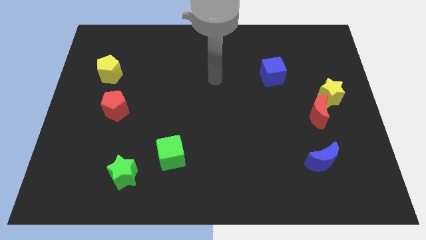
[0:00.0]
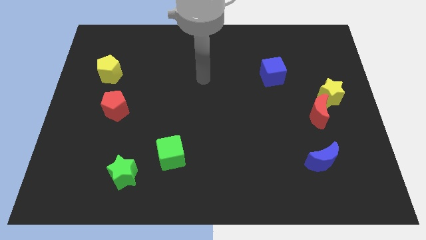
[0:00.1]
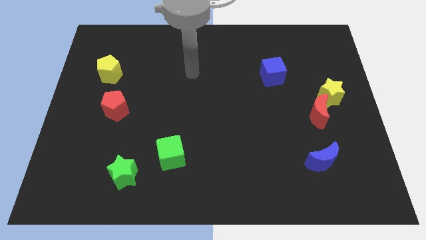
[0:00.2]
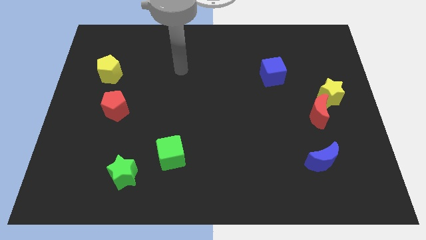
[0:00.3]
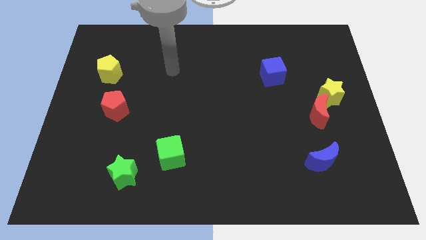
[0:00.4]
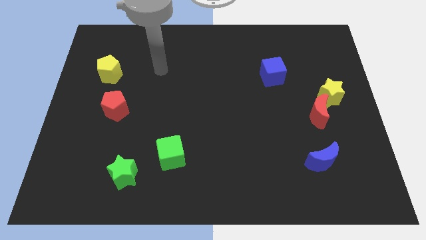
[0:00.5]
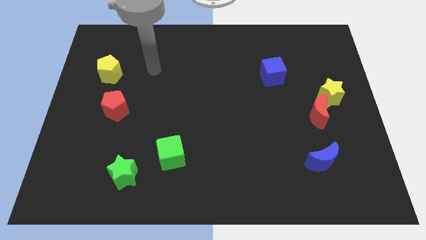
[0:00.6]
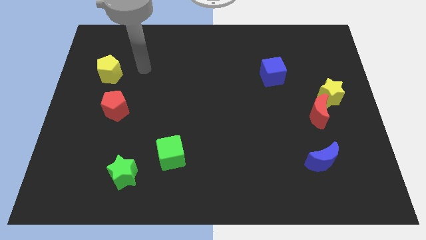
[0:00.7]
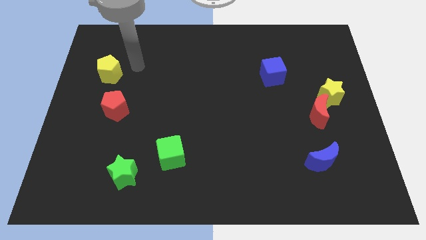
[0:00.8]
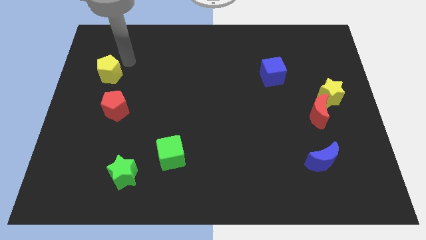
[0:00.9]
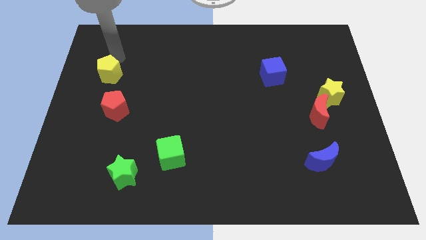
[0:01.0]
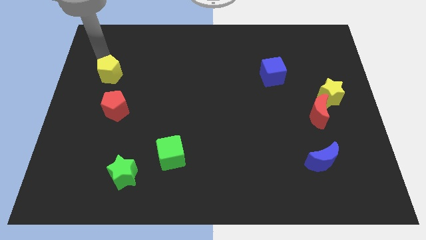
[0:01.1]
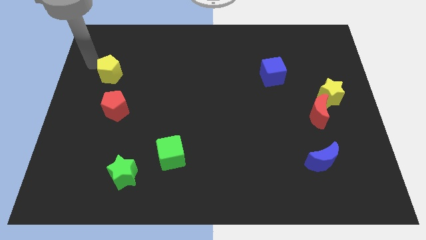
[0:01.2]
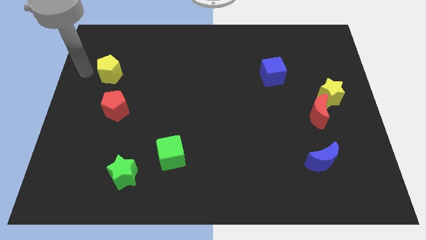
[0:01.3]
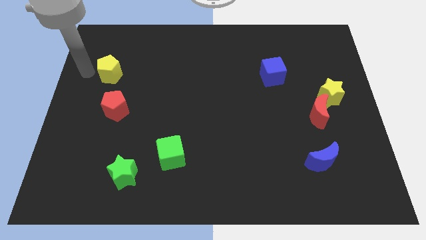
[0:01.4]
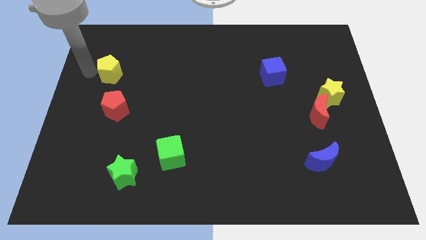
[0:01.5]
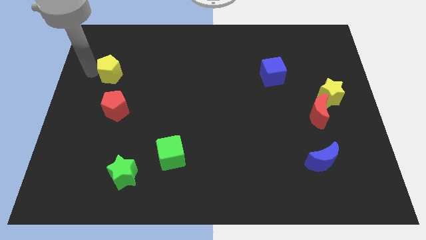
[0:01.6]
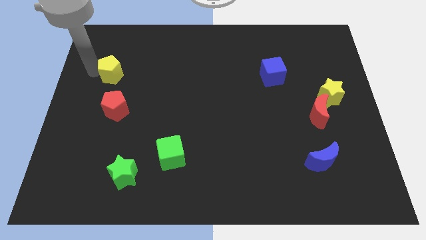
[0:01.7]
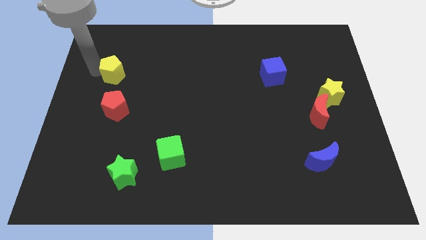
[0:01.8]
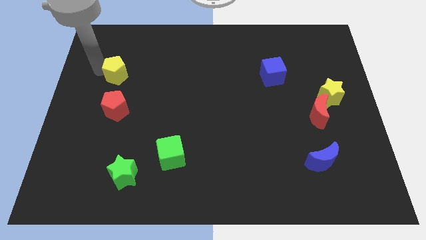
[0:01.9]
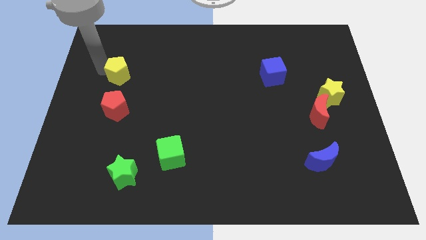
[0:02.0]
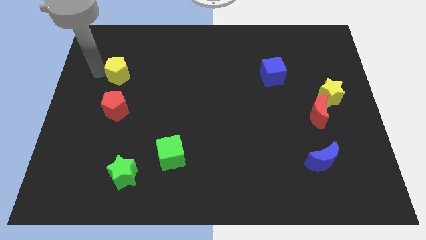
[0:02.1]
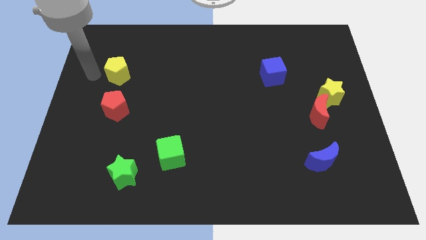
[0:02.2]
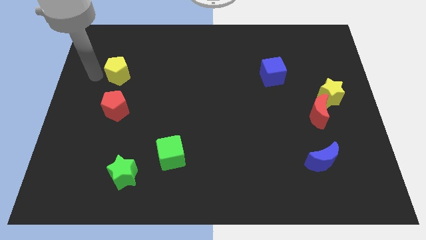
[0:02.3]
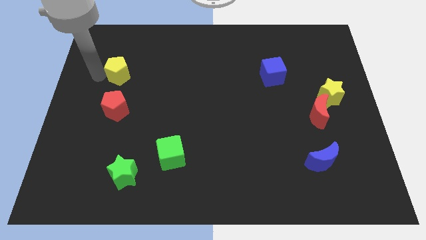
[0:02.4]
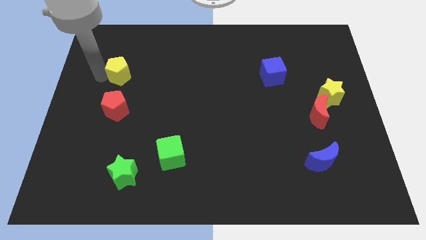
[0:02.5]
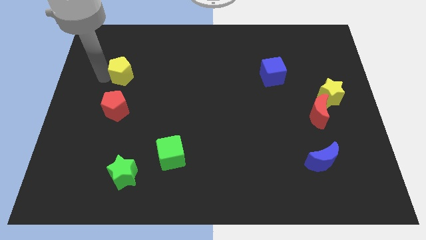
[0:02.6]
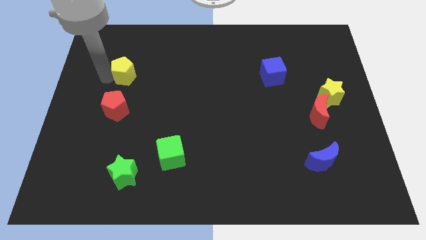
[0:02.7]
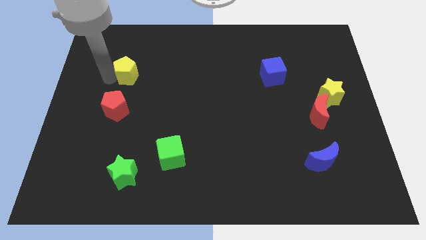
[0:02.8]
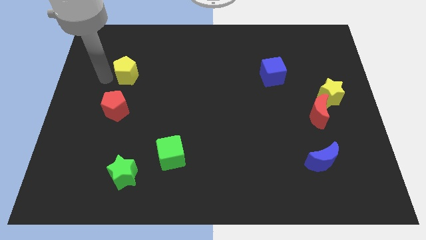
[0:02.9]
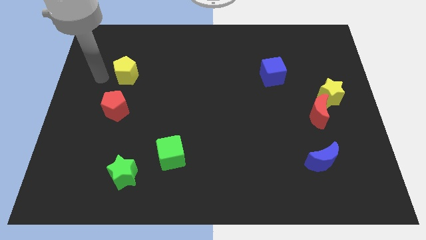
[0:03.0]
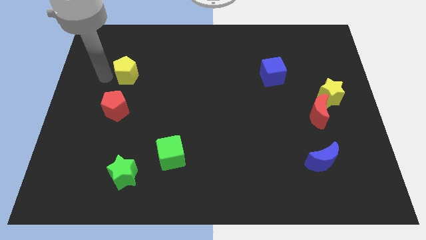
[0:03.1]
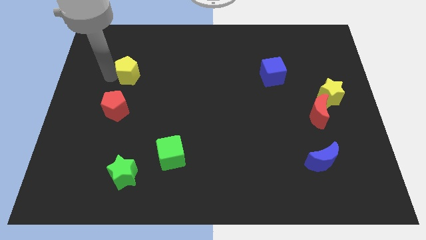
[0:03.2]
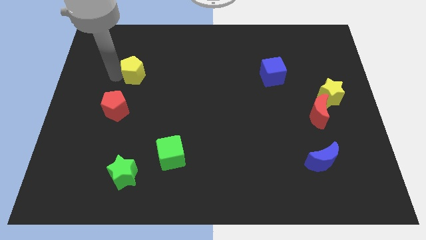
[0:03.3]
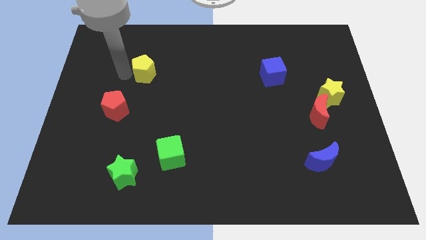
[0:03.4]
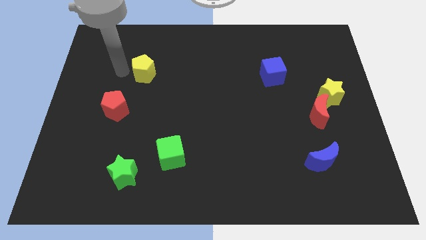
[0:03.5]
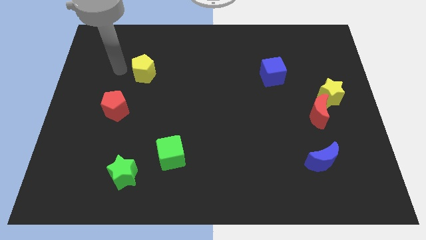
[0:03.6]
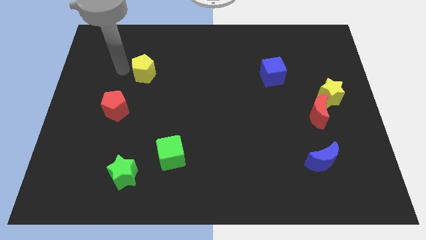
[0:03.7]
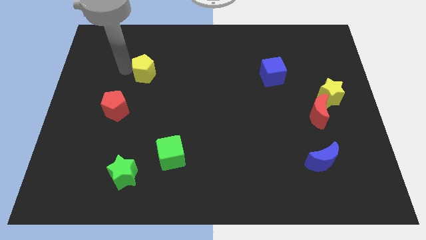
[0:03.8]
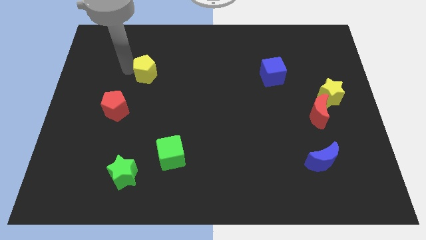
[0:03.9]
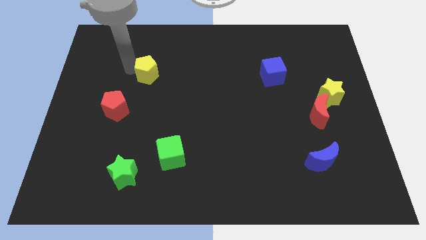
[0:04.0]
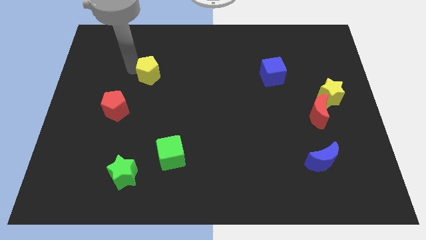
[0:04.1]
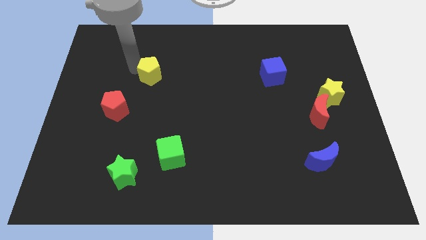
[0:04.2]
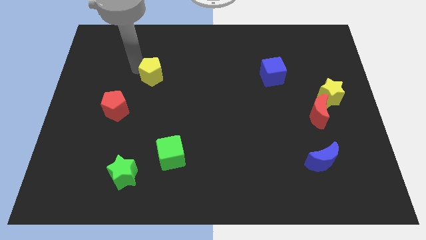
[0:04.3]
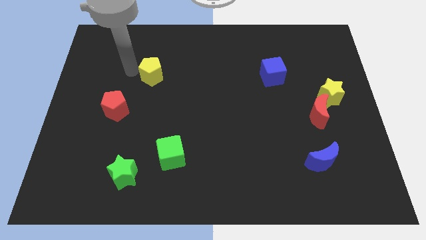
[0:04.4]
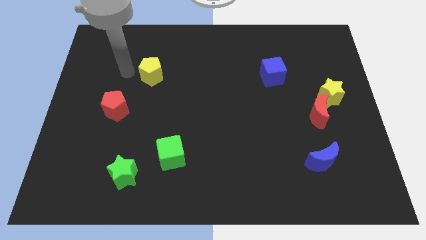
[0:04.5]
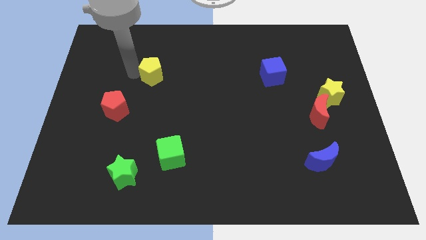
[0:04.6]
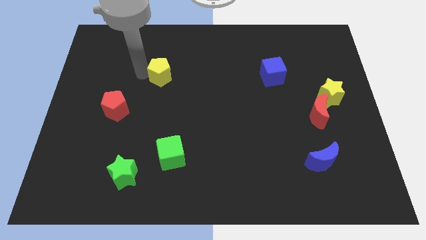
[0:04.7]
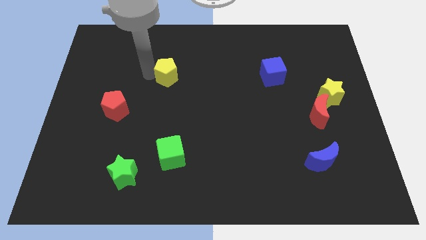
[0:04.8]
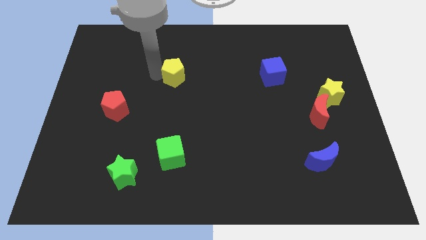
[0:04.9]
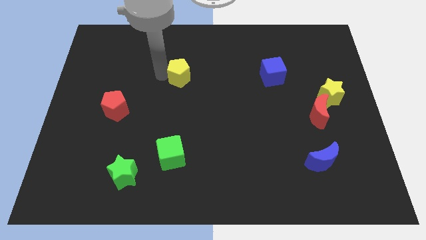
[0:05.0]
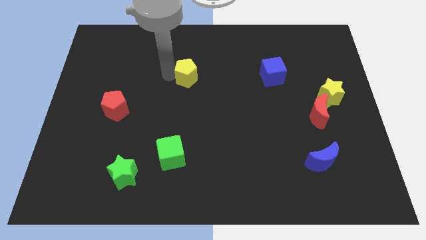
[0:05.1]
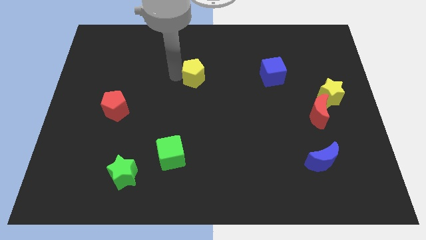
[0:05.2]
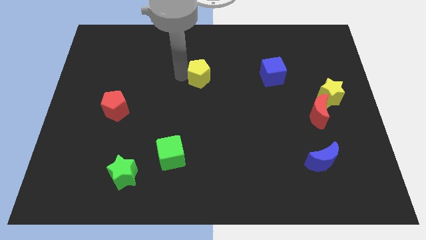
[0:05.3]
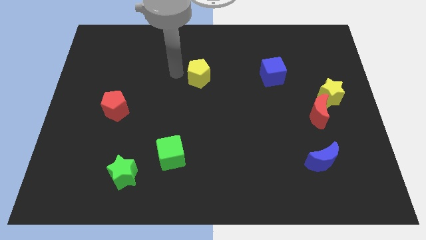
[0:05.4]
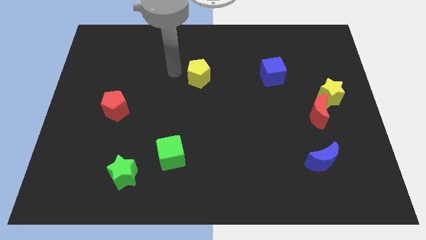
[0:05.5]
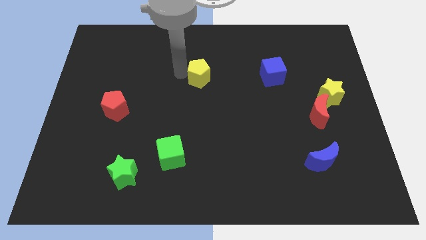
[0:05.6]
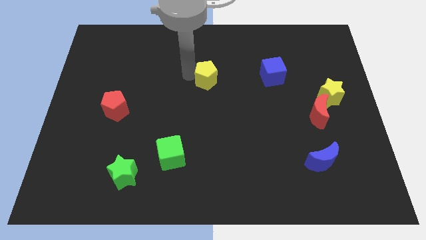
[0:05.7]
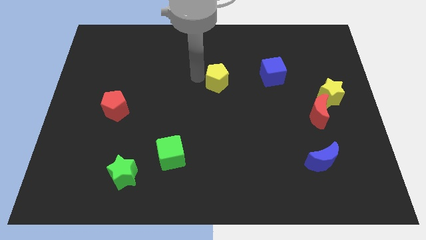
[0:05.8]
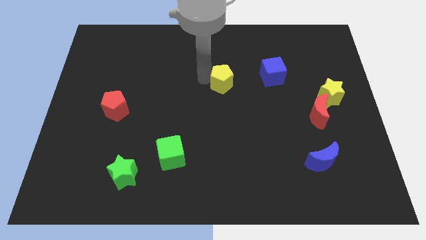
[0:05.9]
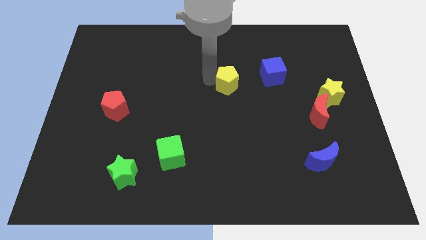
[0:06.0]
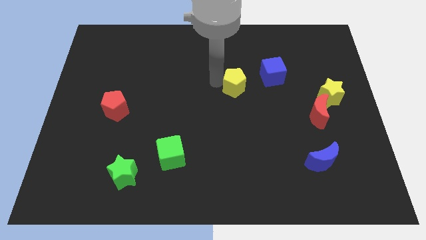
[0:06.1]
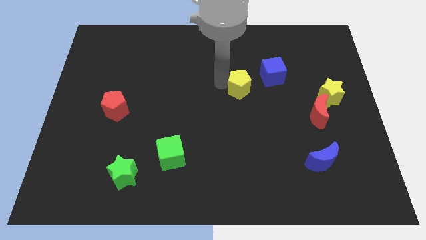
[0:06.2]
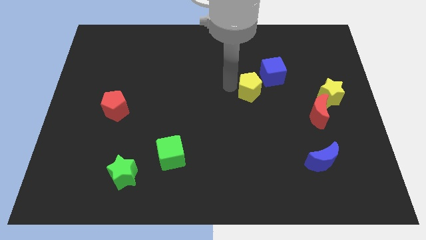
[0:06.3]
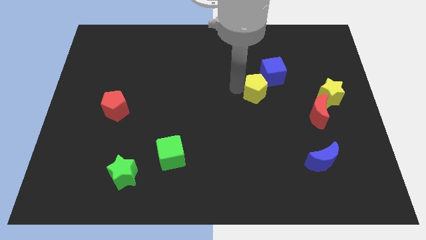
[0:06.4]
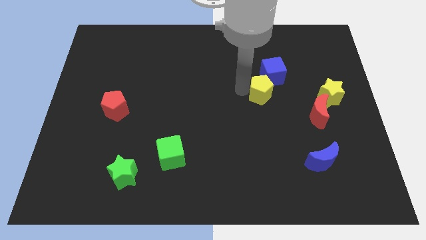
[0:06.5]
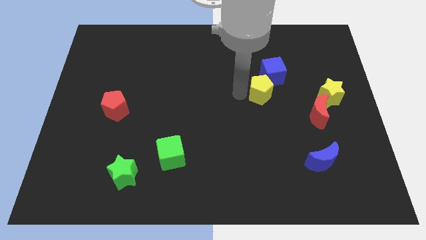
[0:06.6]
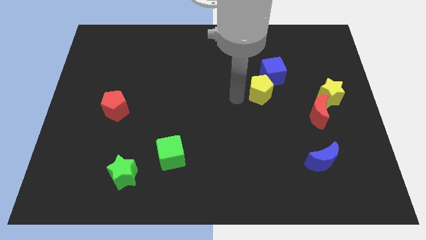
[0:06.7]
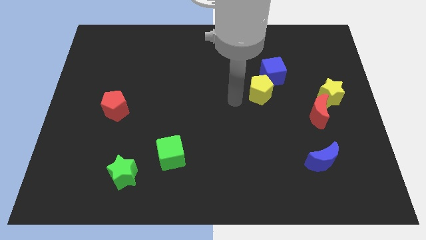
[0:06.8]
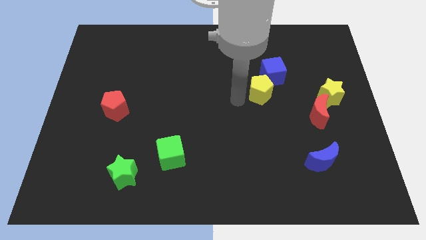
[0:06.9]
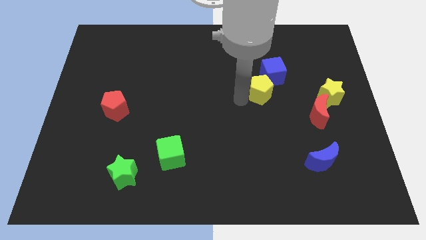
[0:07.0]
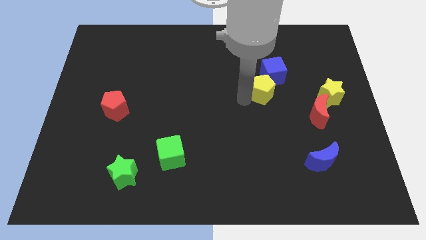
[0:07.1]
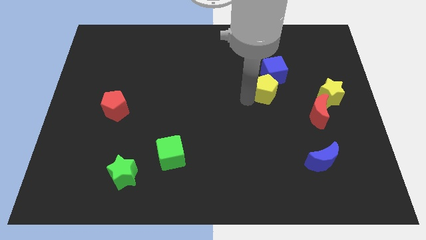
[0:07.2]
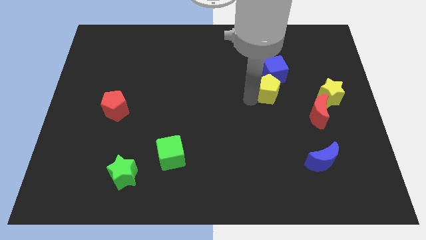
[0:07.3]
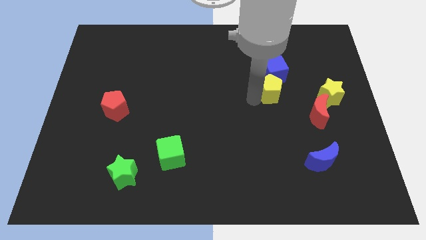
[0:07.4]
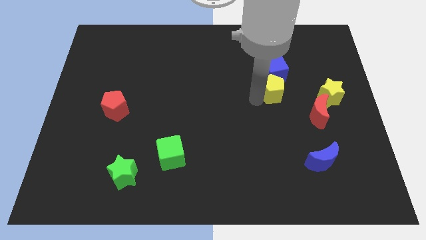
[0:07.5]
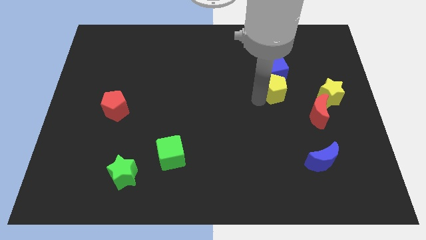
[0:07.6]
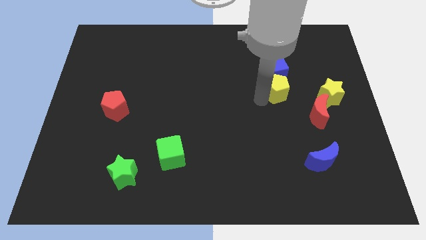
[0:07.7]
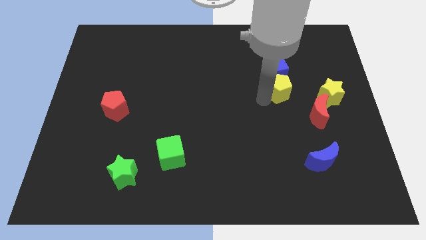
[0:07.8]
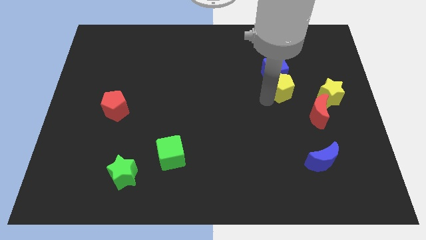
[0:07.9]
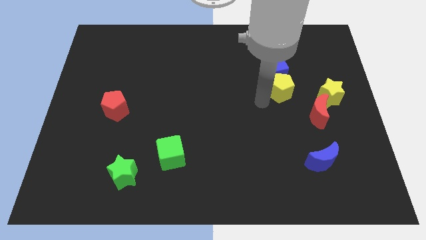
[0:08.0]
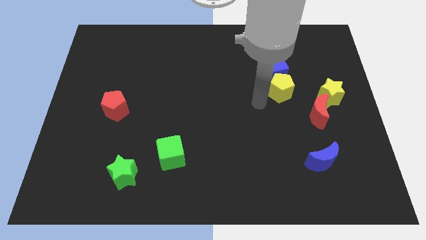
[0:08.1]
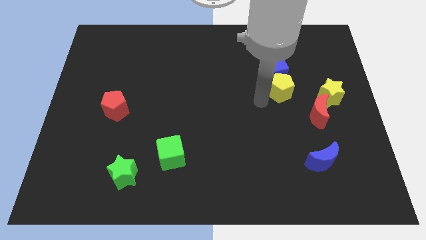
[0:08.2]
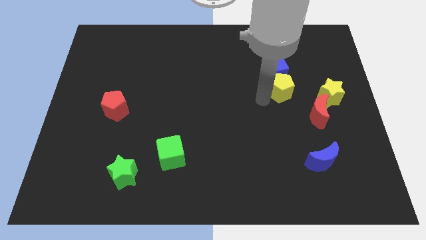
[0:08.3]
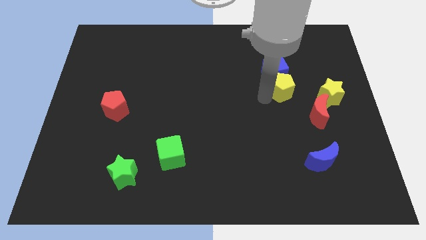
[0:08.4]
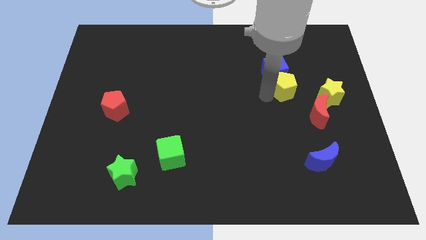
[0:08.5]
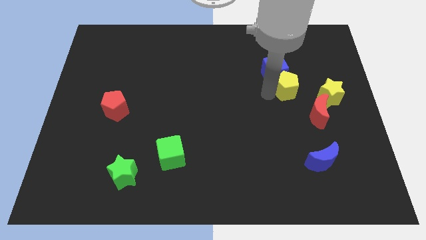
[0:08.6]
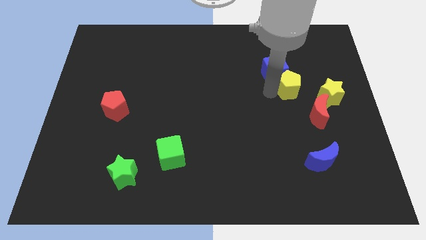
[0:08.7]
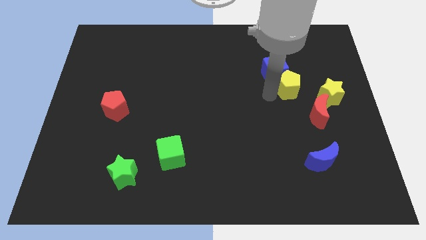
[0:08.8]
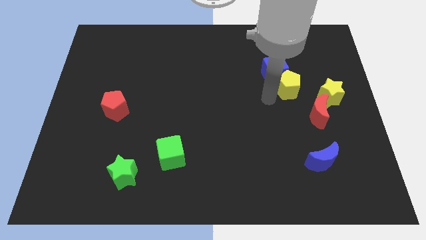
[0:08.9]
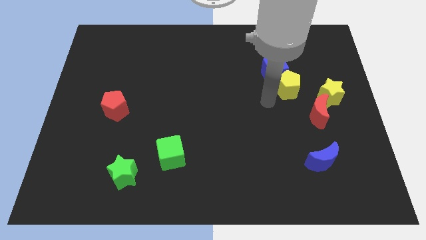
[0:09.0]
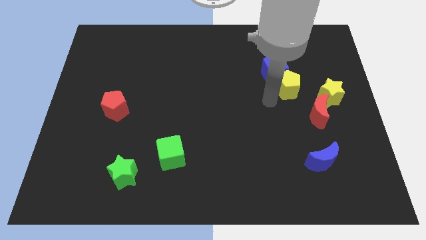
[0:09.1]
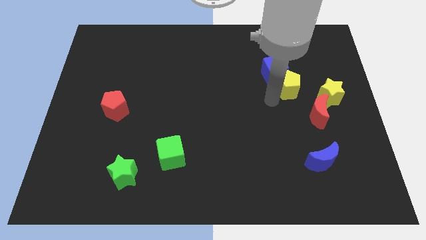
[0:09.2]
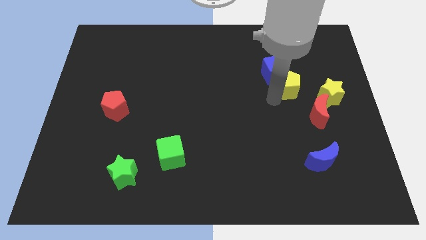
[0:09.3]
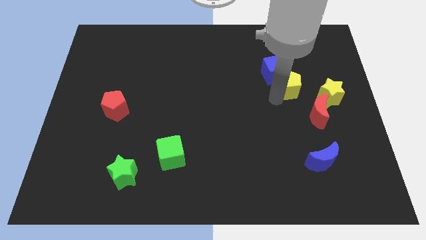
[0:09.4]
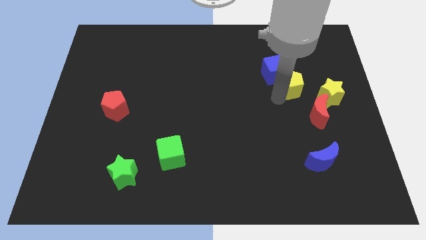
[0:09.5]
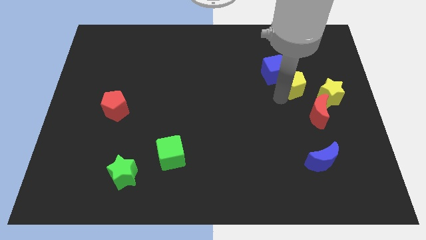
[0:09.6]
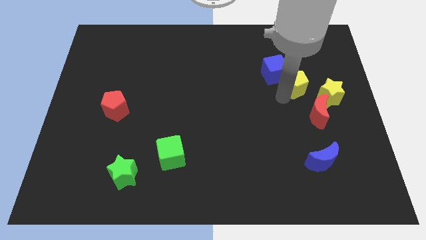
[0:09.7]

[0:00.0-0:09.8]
move the yellow pentagon just right of the blue cube
